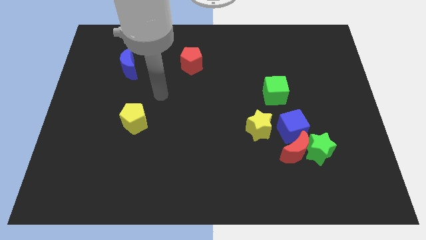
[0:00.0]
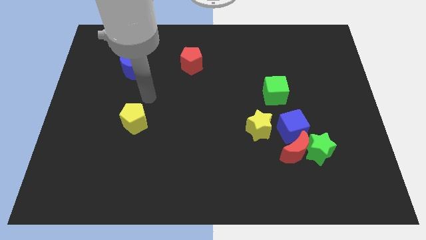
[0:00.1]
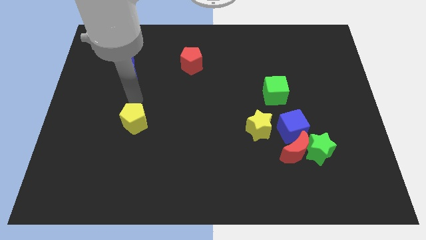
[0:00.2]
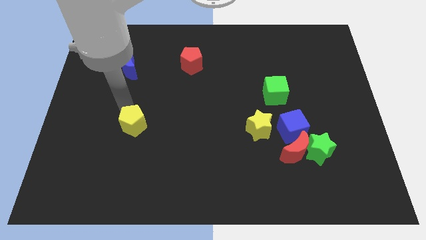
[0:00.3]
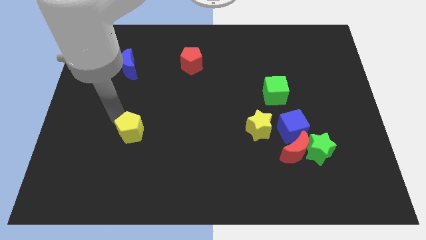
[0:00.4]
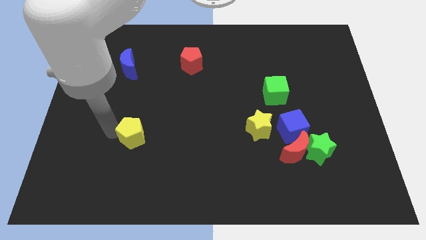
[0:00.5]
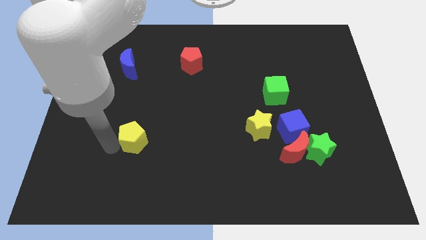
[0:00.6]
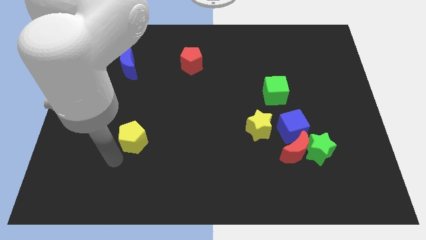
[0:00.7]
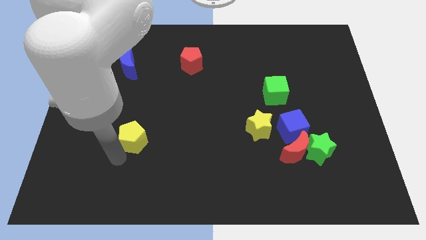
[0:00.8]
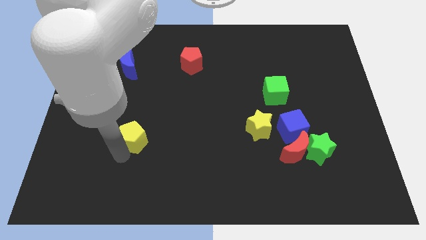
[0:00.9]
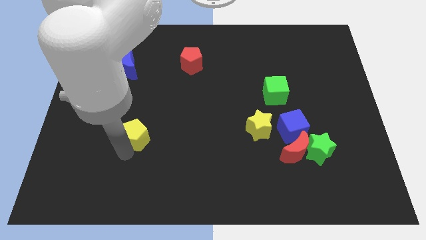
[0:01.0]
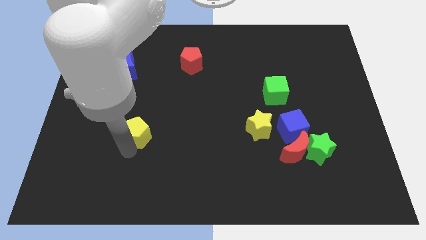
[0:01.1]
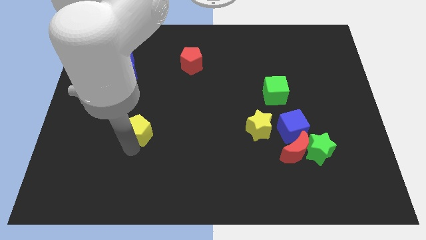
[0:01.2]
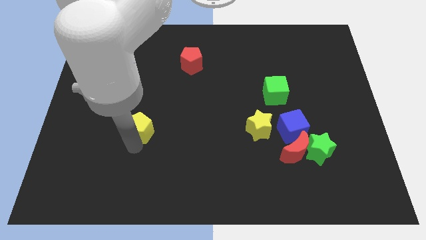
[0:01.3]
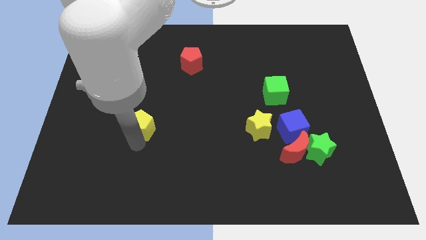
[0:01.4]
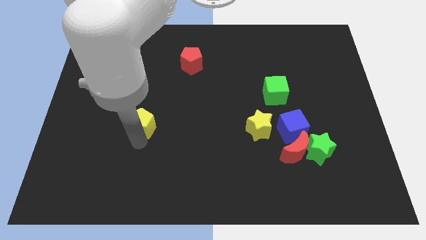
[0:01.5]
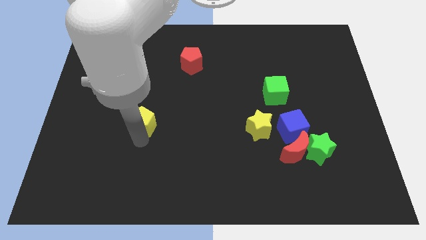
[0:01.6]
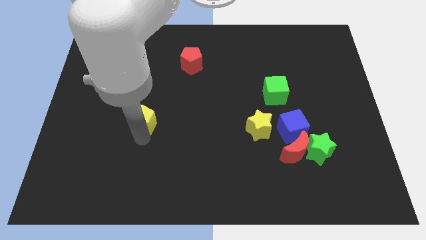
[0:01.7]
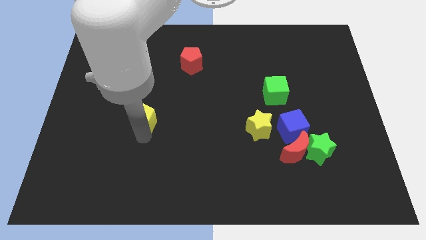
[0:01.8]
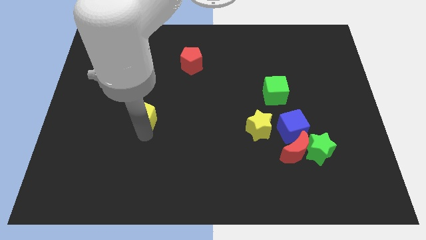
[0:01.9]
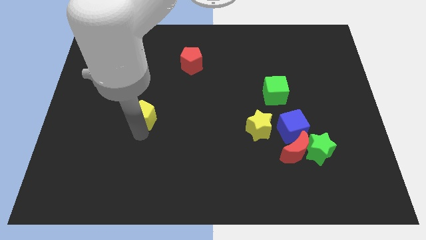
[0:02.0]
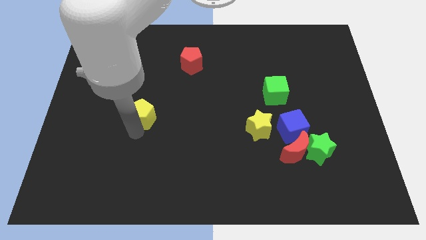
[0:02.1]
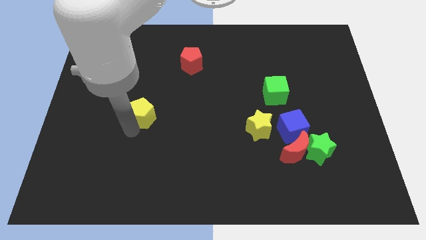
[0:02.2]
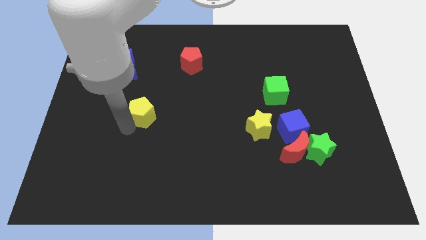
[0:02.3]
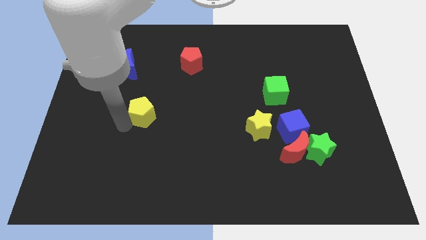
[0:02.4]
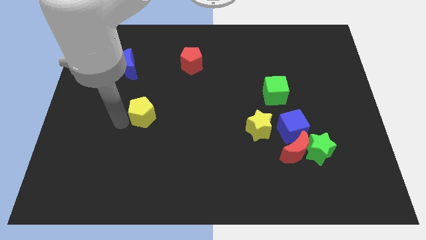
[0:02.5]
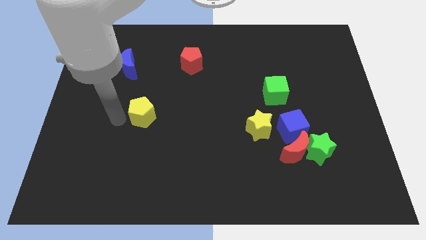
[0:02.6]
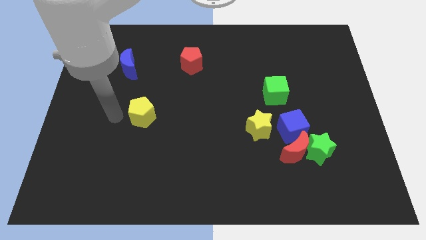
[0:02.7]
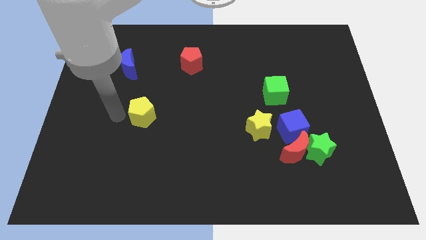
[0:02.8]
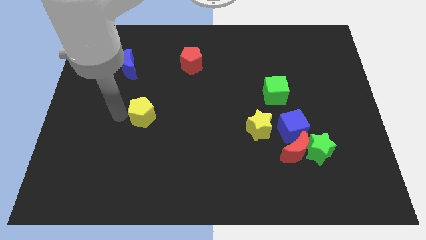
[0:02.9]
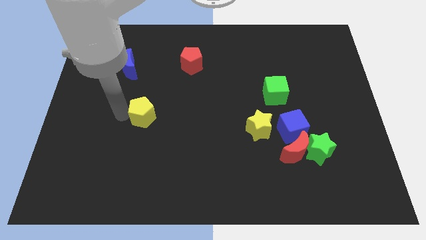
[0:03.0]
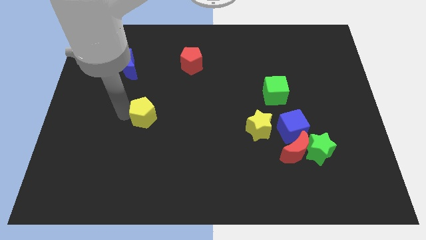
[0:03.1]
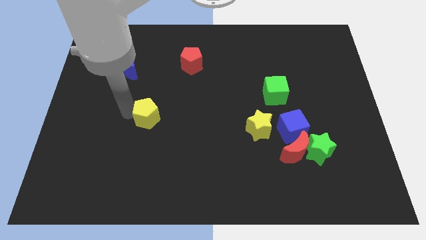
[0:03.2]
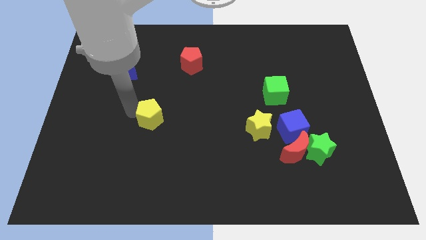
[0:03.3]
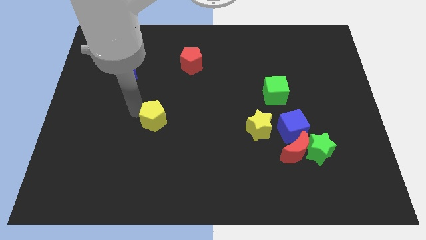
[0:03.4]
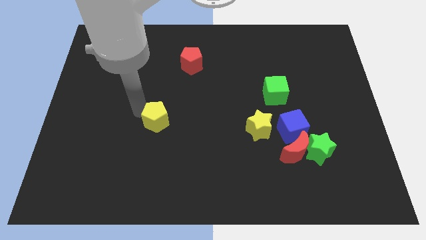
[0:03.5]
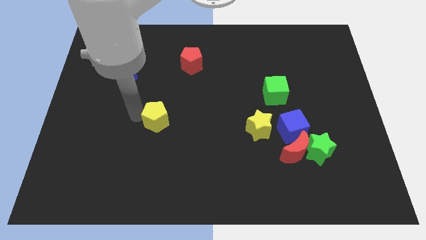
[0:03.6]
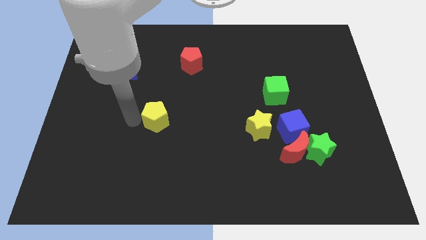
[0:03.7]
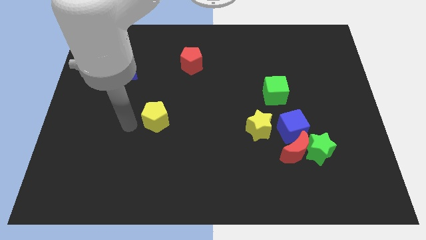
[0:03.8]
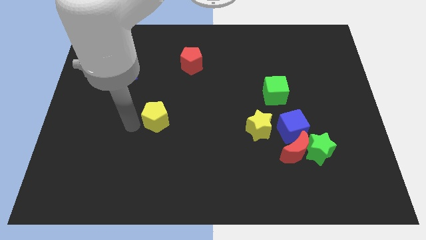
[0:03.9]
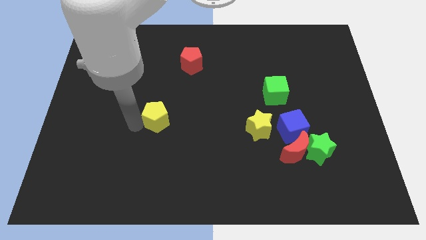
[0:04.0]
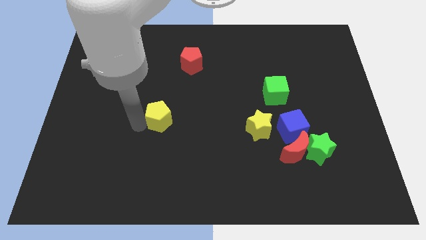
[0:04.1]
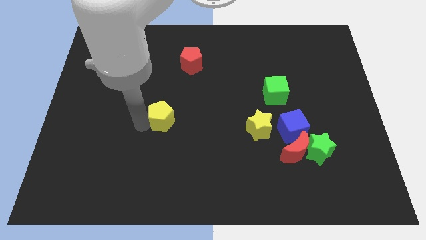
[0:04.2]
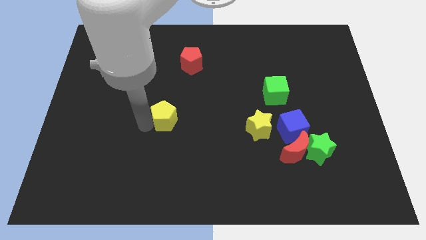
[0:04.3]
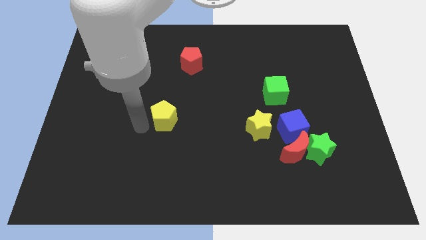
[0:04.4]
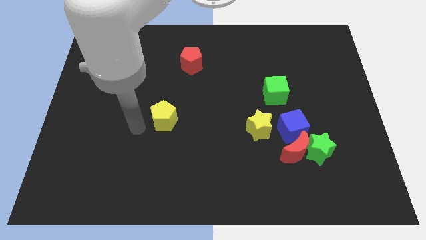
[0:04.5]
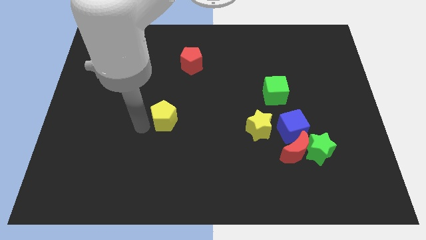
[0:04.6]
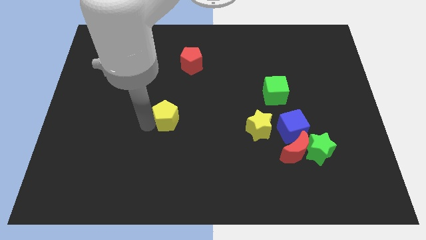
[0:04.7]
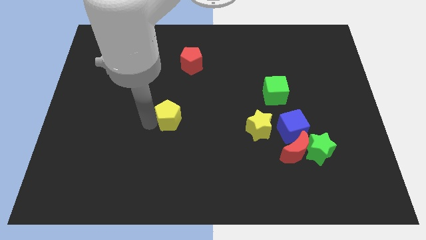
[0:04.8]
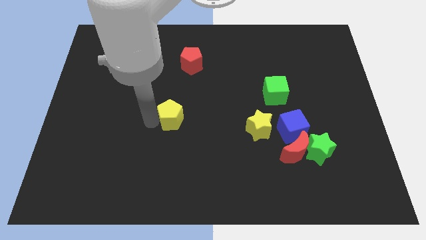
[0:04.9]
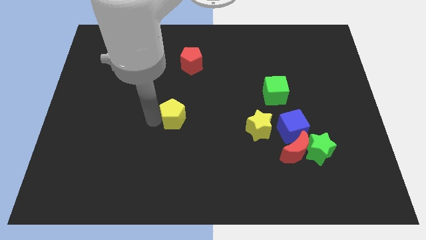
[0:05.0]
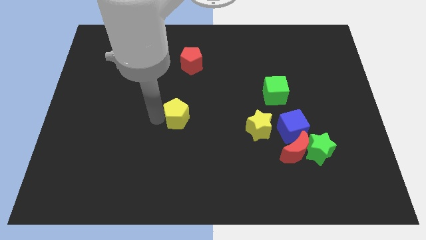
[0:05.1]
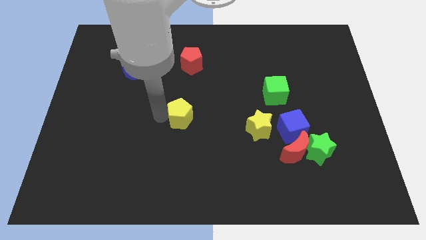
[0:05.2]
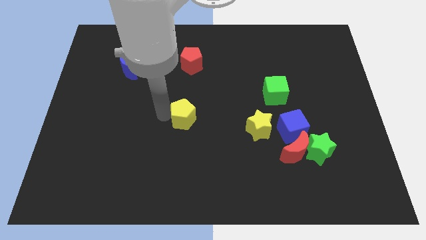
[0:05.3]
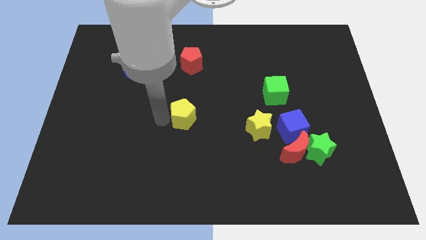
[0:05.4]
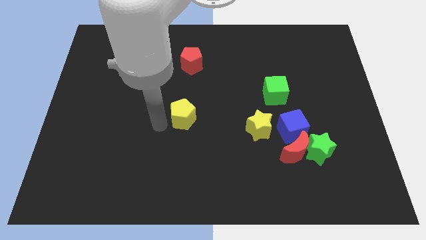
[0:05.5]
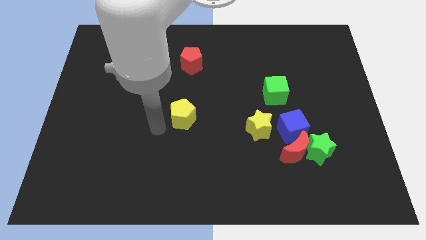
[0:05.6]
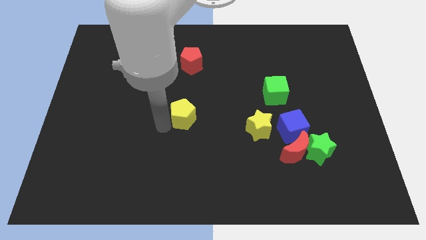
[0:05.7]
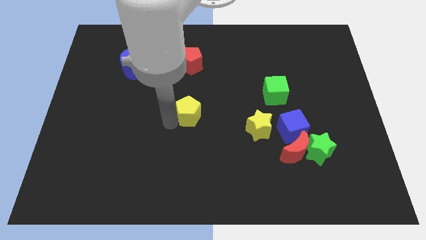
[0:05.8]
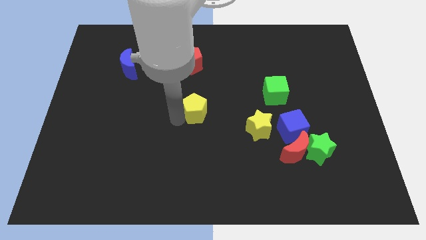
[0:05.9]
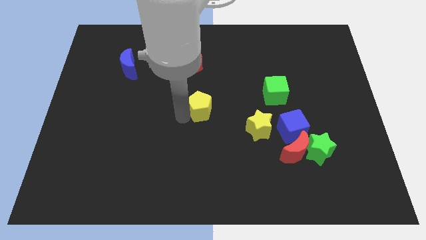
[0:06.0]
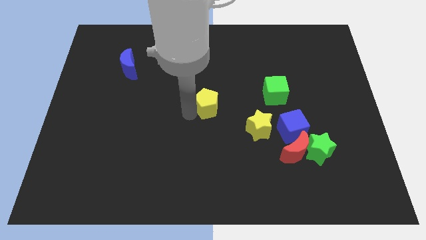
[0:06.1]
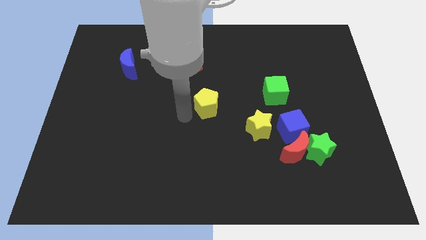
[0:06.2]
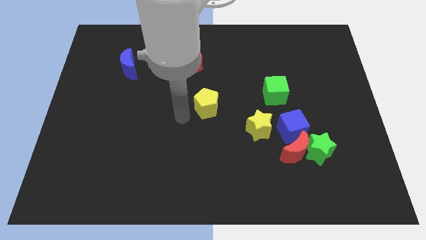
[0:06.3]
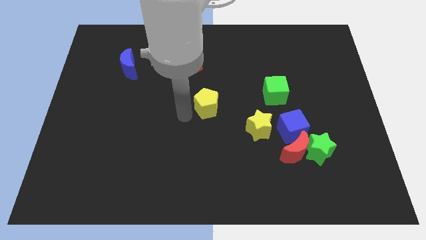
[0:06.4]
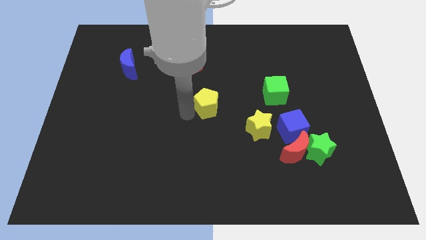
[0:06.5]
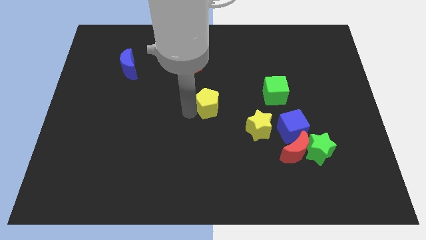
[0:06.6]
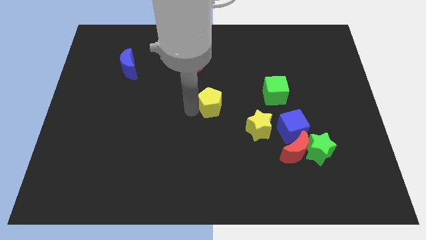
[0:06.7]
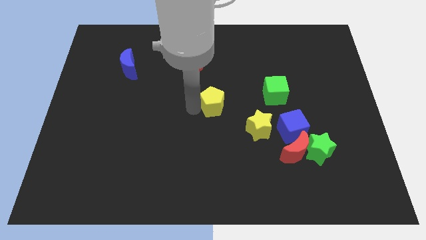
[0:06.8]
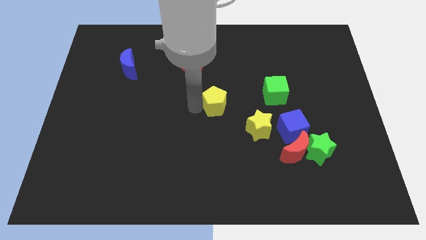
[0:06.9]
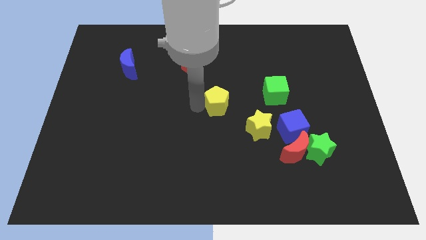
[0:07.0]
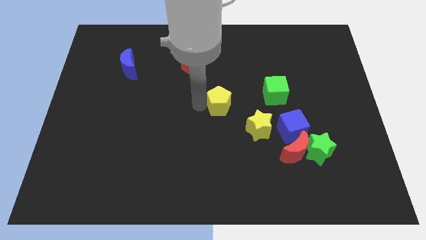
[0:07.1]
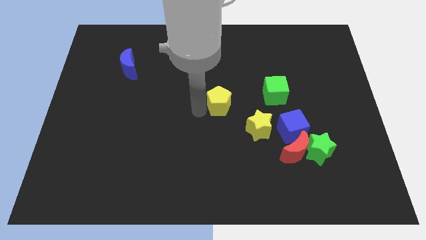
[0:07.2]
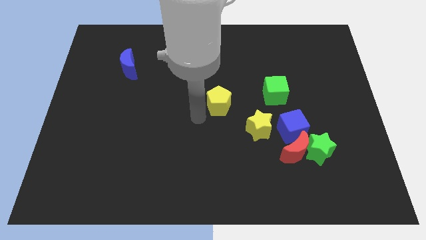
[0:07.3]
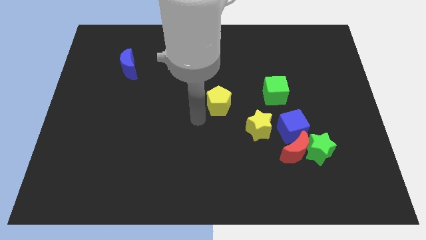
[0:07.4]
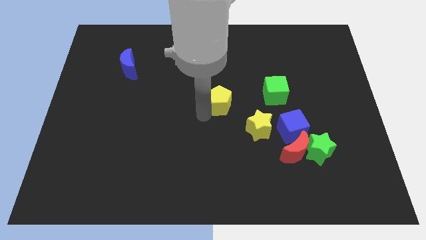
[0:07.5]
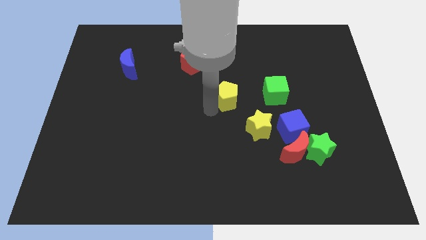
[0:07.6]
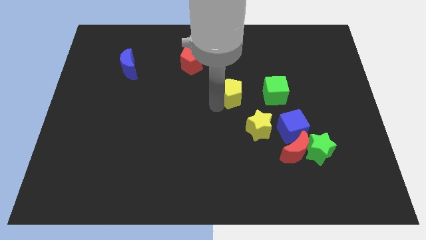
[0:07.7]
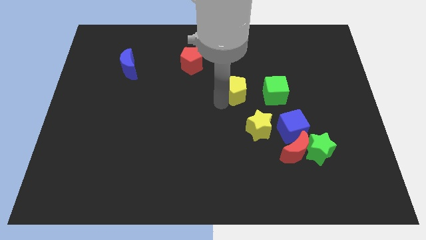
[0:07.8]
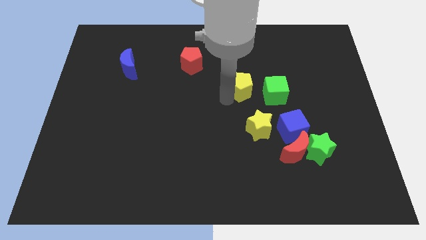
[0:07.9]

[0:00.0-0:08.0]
put the yellow pentagon diagonally up and to the left of the green cube
